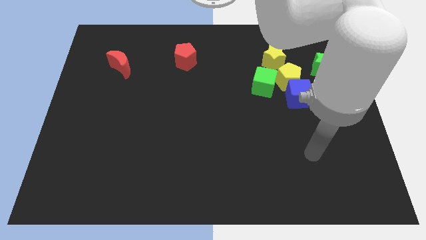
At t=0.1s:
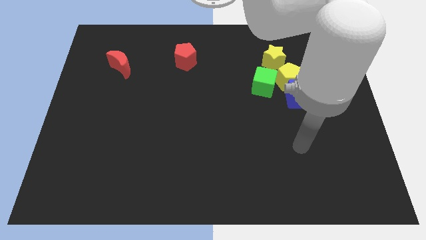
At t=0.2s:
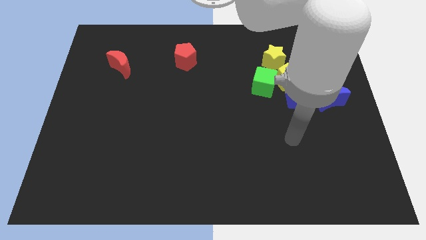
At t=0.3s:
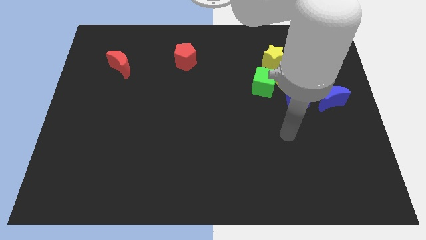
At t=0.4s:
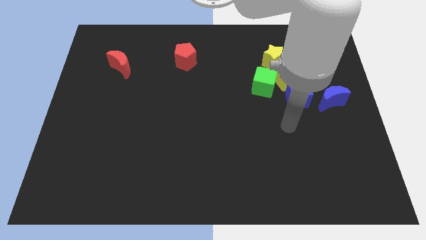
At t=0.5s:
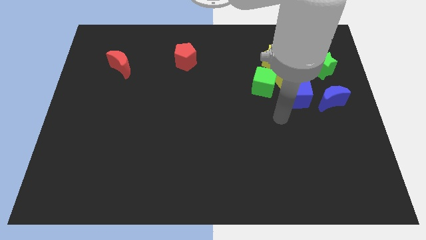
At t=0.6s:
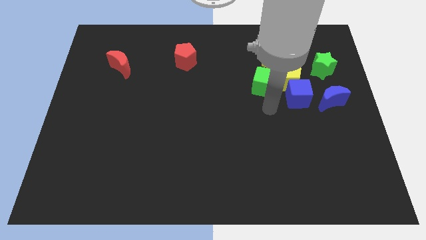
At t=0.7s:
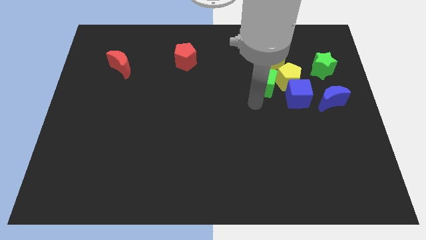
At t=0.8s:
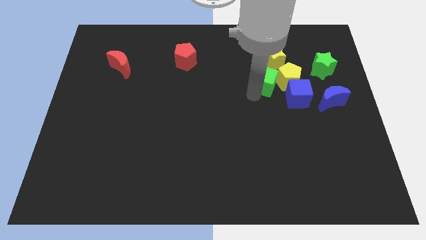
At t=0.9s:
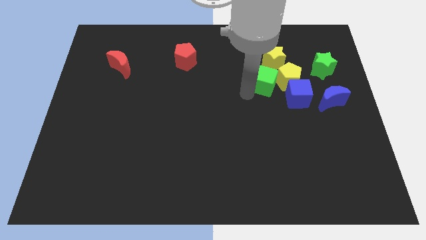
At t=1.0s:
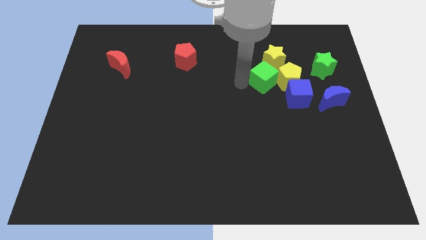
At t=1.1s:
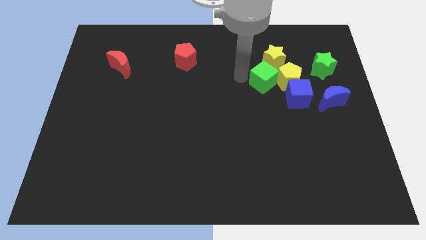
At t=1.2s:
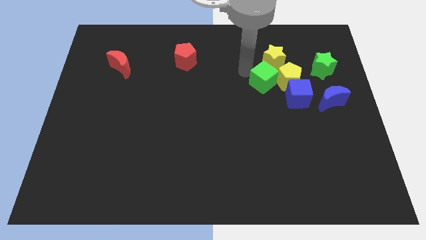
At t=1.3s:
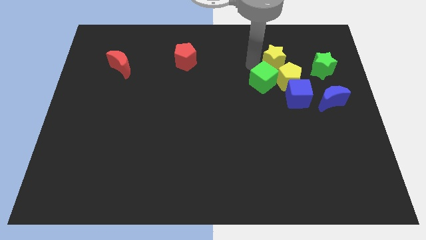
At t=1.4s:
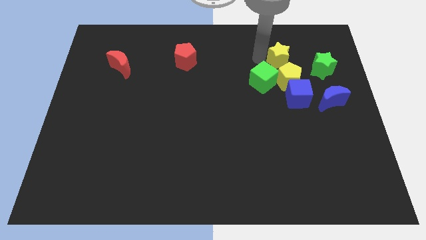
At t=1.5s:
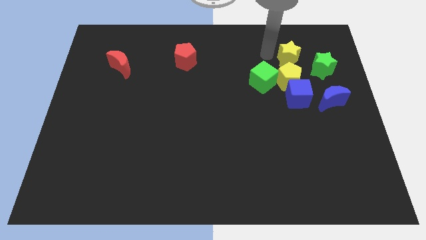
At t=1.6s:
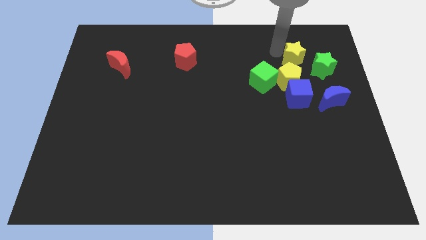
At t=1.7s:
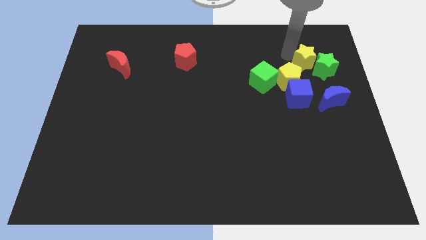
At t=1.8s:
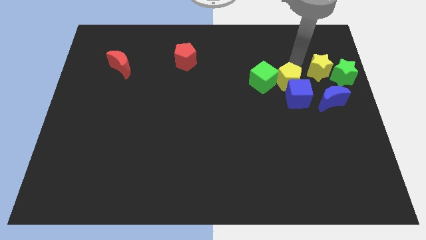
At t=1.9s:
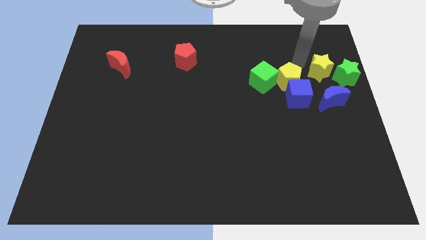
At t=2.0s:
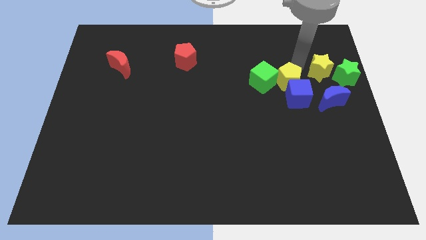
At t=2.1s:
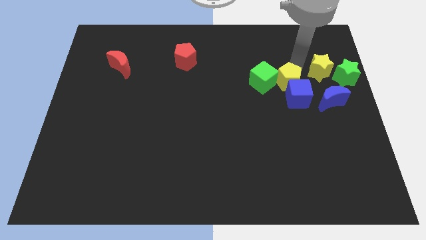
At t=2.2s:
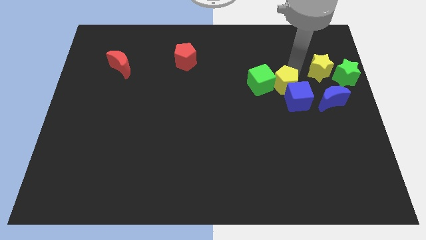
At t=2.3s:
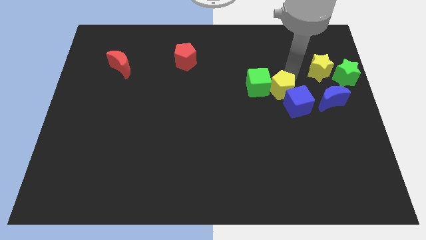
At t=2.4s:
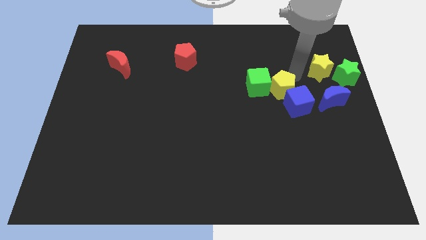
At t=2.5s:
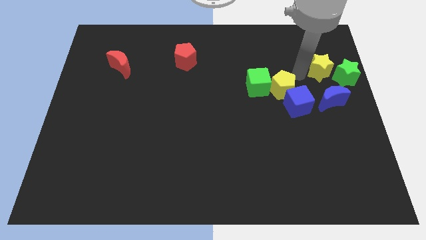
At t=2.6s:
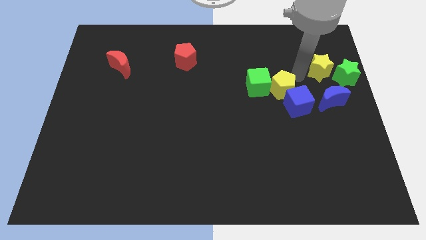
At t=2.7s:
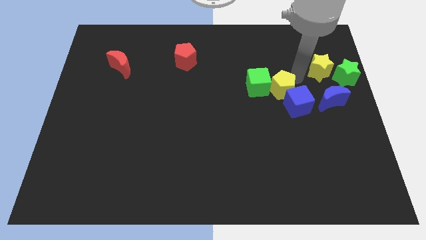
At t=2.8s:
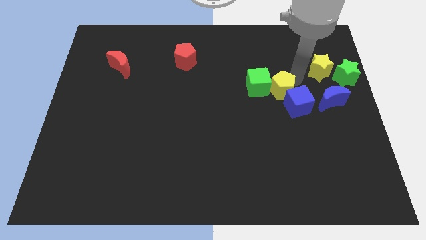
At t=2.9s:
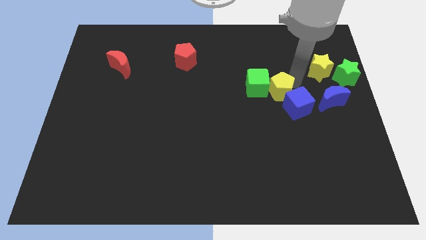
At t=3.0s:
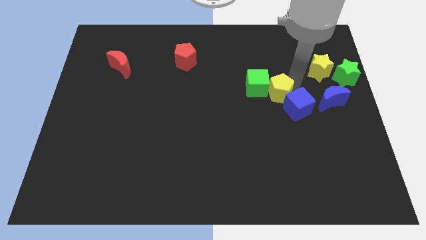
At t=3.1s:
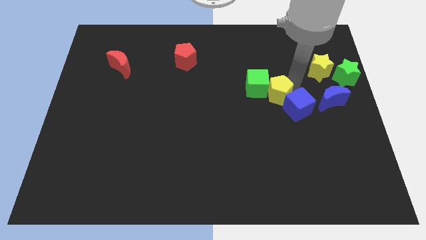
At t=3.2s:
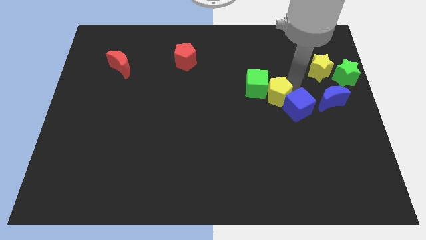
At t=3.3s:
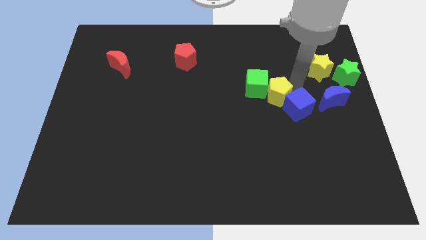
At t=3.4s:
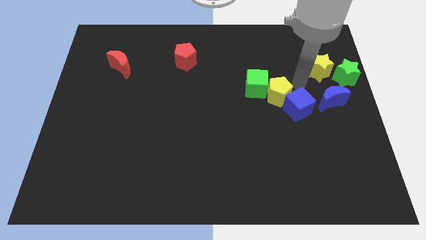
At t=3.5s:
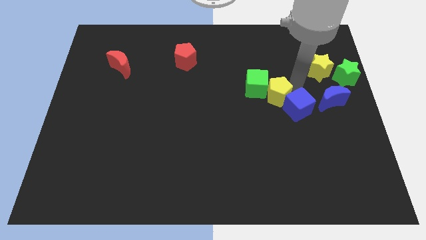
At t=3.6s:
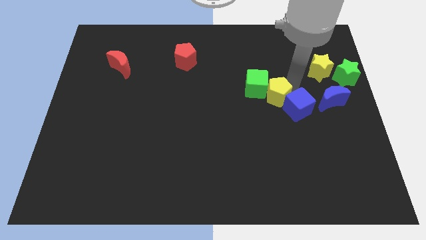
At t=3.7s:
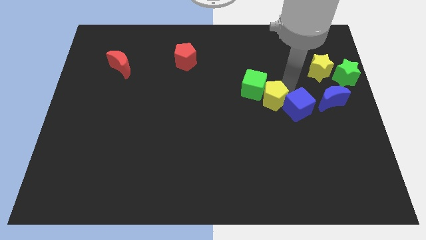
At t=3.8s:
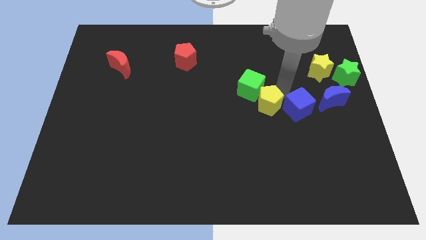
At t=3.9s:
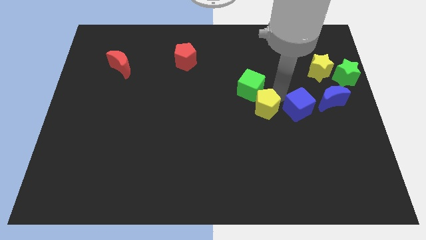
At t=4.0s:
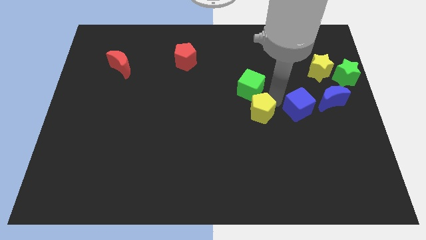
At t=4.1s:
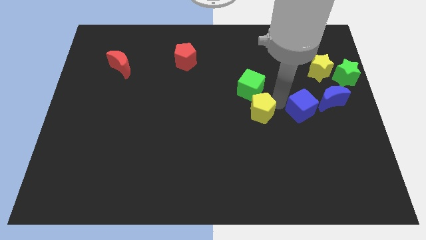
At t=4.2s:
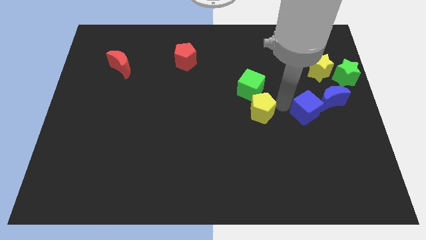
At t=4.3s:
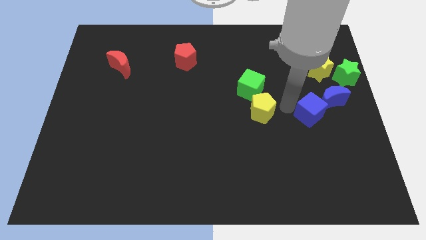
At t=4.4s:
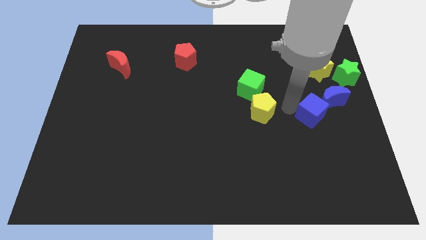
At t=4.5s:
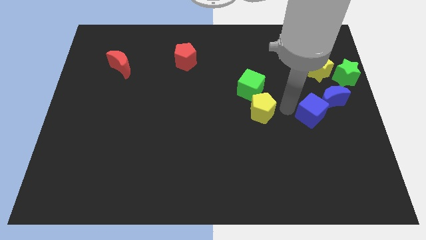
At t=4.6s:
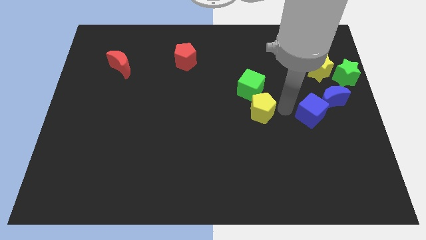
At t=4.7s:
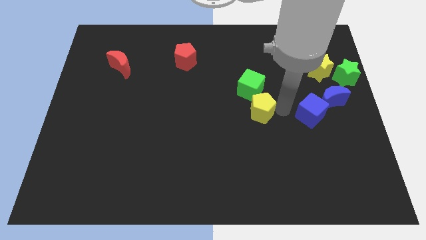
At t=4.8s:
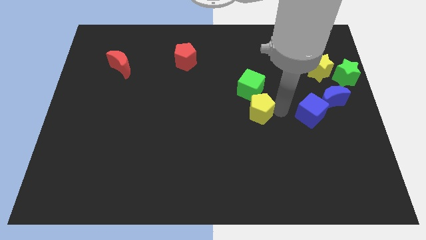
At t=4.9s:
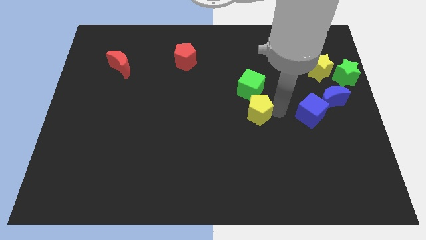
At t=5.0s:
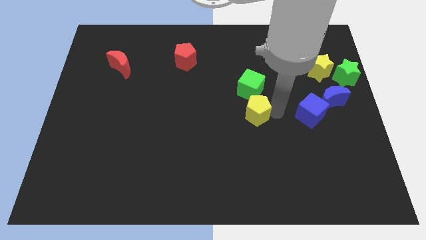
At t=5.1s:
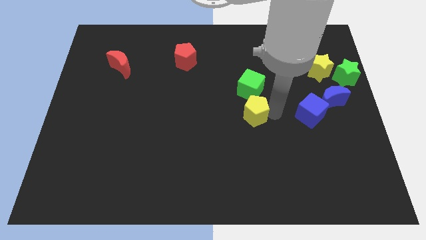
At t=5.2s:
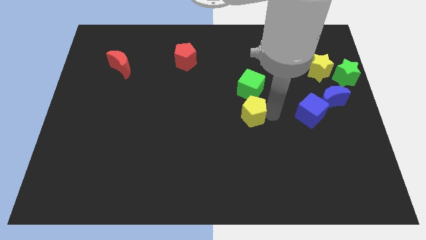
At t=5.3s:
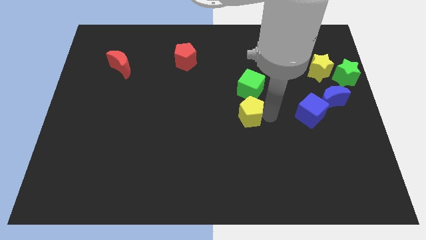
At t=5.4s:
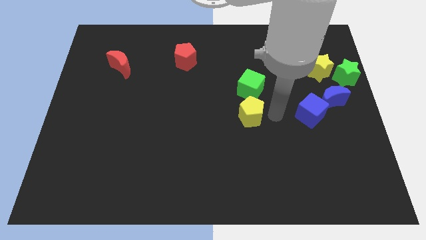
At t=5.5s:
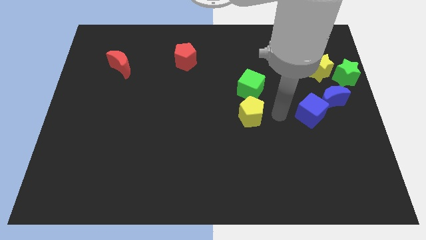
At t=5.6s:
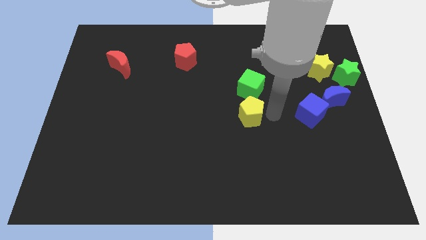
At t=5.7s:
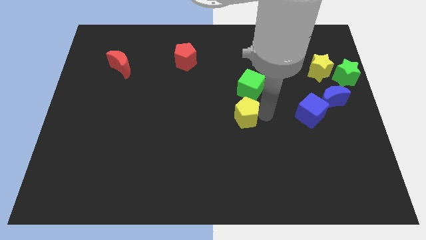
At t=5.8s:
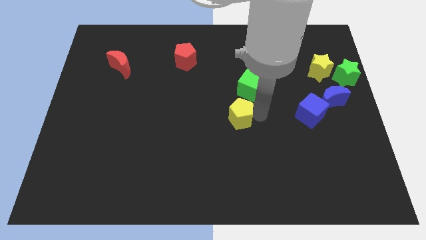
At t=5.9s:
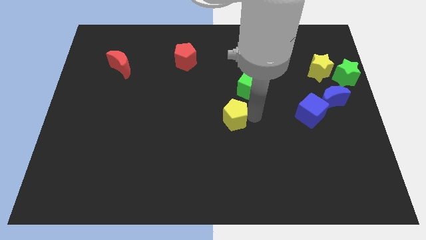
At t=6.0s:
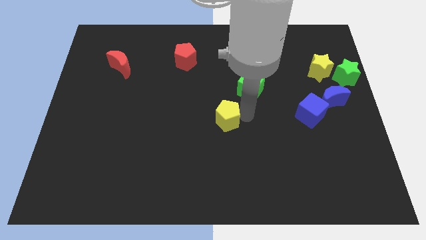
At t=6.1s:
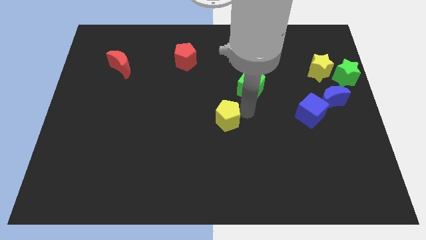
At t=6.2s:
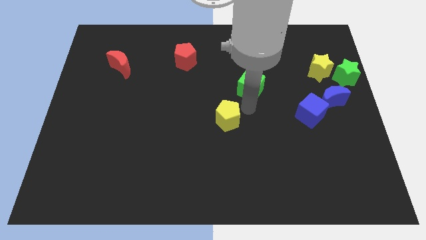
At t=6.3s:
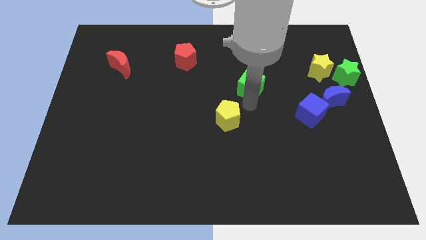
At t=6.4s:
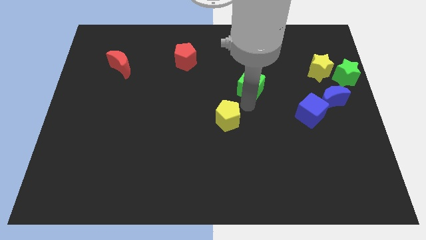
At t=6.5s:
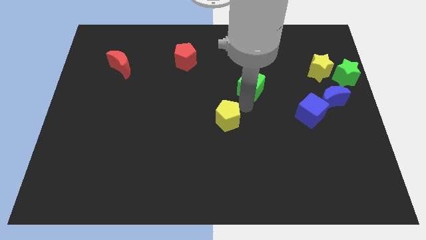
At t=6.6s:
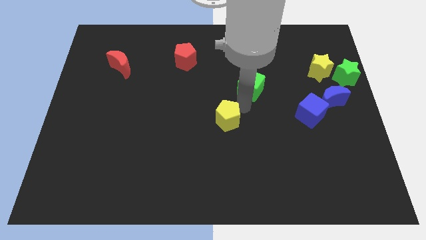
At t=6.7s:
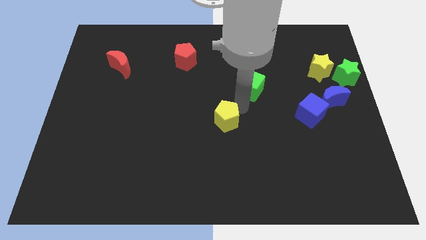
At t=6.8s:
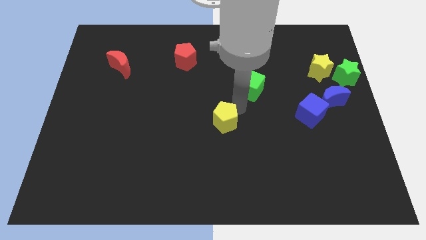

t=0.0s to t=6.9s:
move the yellow pentagon down and then to the left

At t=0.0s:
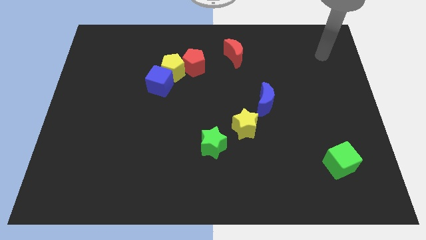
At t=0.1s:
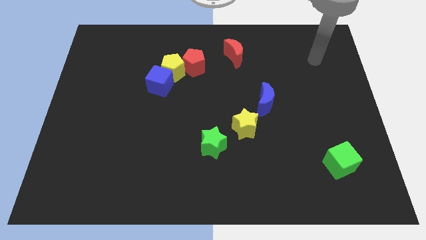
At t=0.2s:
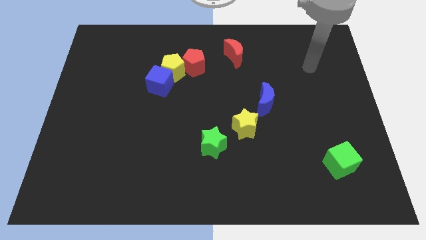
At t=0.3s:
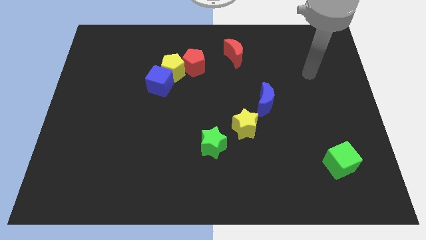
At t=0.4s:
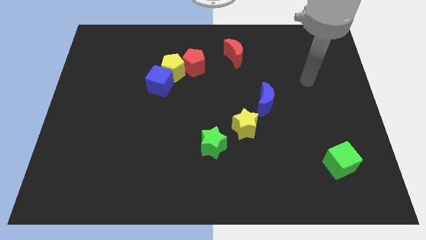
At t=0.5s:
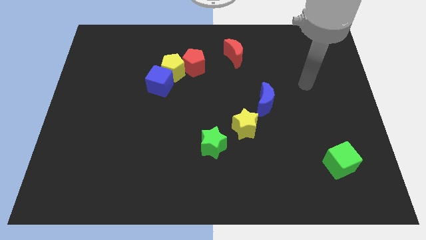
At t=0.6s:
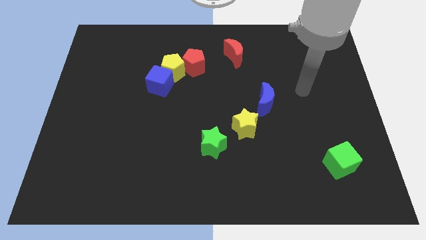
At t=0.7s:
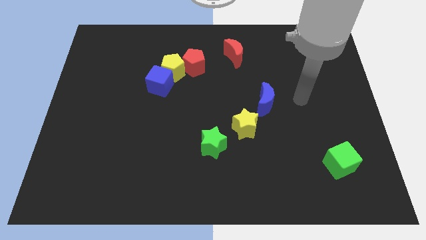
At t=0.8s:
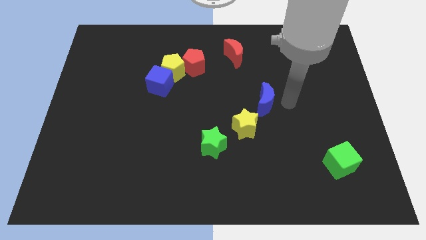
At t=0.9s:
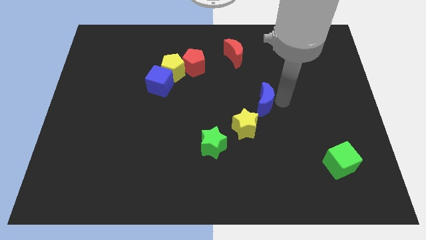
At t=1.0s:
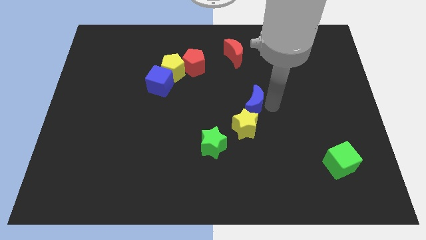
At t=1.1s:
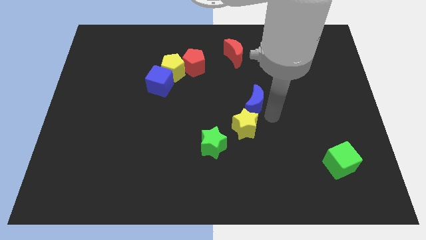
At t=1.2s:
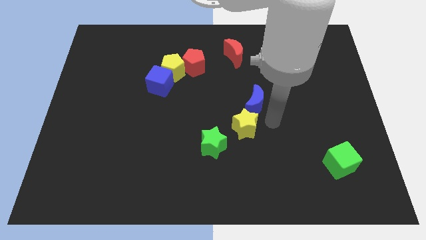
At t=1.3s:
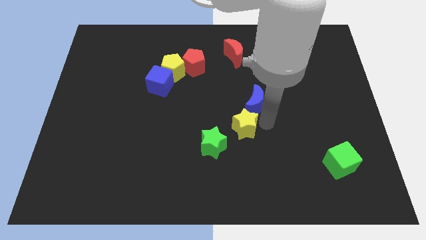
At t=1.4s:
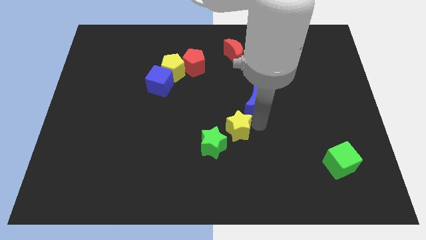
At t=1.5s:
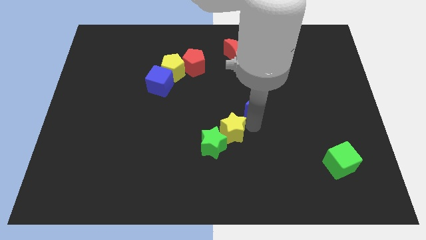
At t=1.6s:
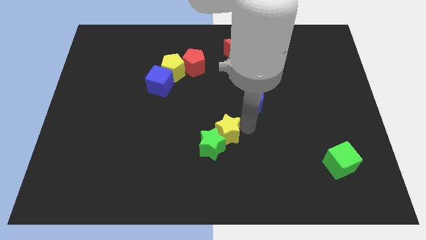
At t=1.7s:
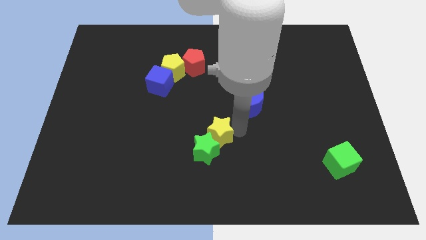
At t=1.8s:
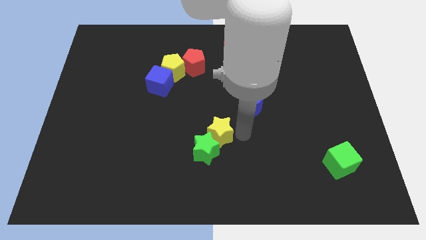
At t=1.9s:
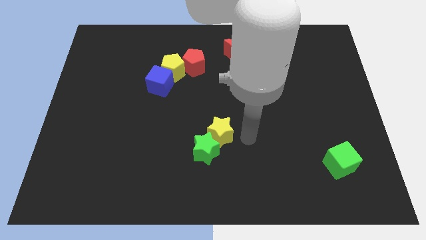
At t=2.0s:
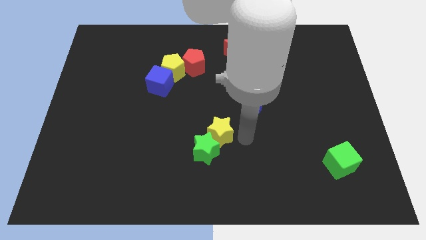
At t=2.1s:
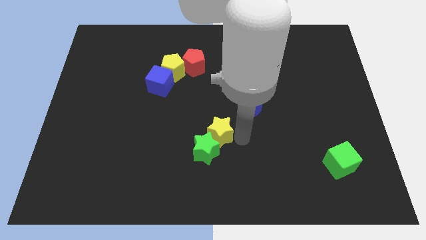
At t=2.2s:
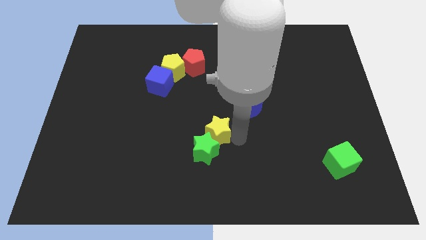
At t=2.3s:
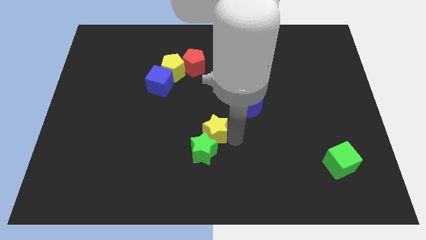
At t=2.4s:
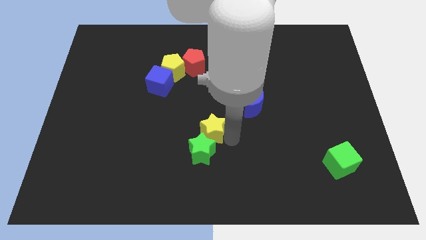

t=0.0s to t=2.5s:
push the yellow star to the left a little bit
